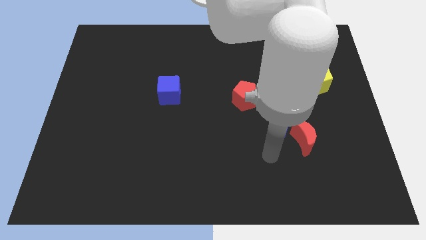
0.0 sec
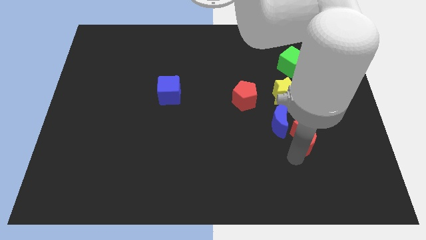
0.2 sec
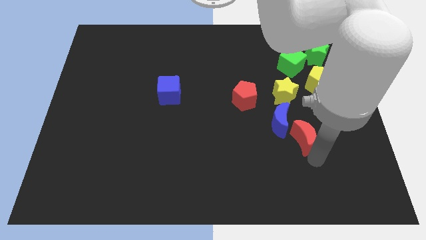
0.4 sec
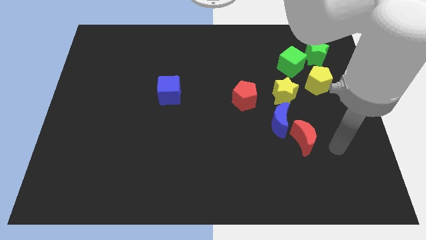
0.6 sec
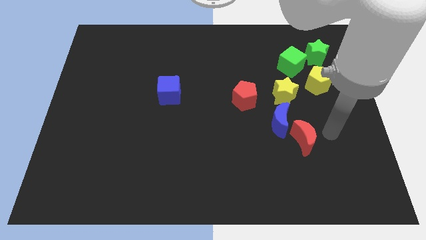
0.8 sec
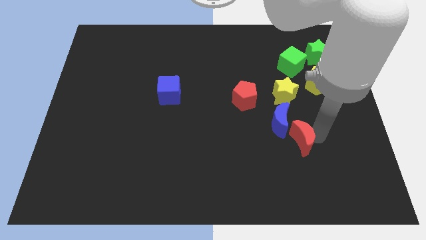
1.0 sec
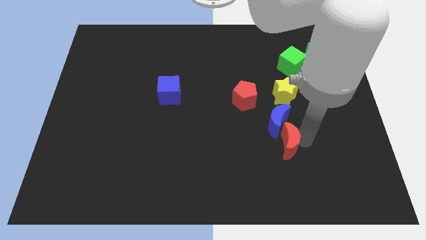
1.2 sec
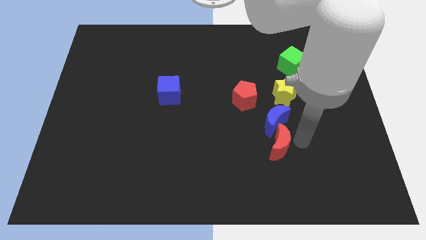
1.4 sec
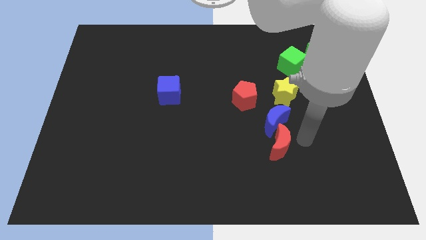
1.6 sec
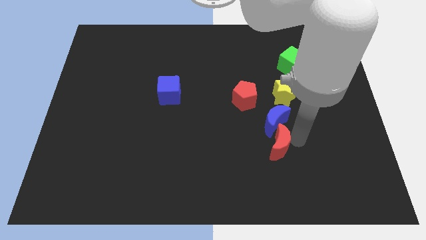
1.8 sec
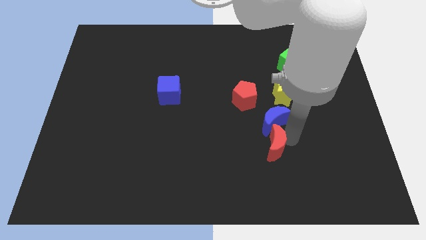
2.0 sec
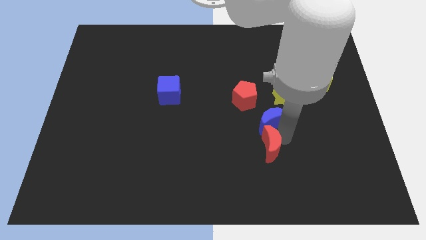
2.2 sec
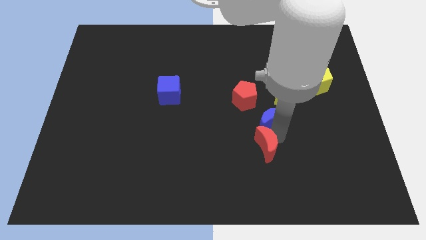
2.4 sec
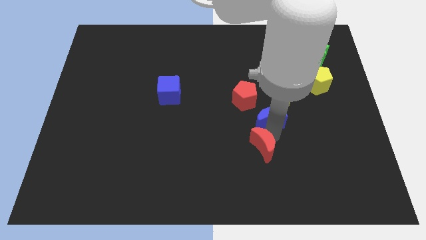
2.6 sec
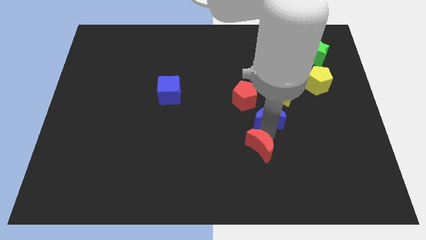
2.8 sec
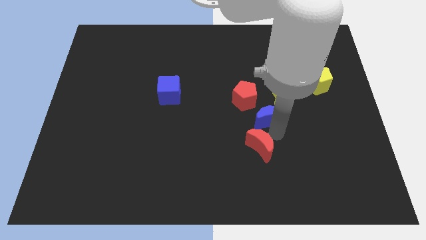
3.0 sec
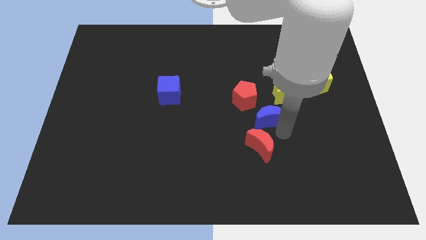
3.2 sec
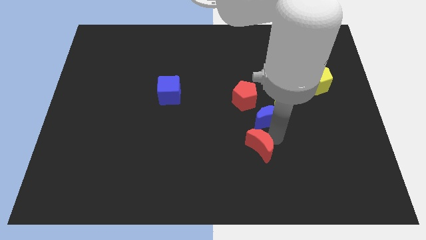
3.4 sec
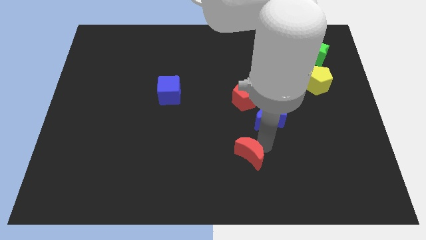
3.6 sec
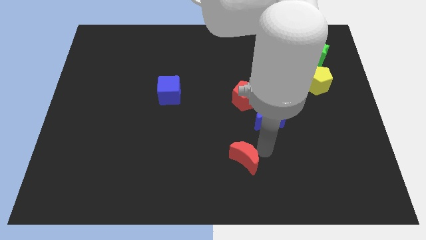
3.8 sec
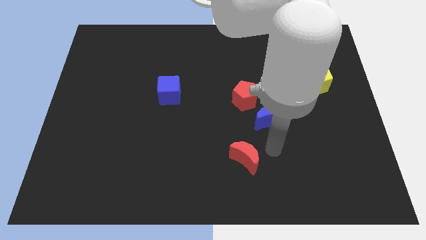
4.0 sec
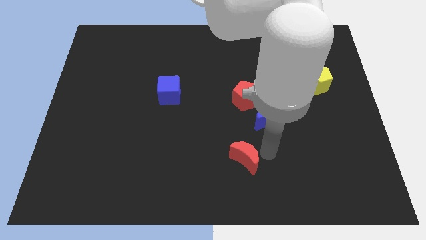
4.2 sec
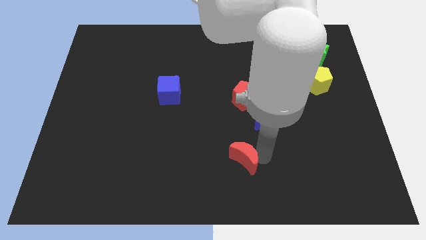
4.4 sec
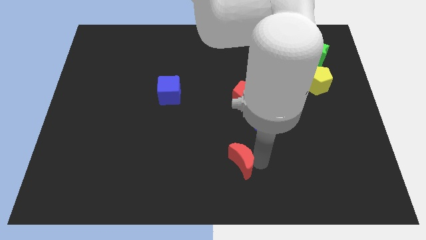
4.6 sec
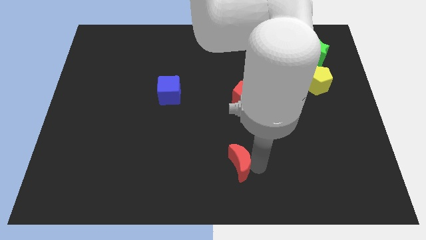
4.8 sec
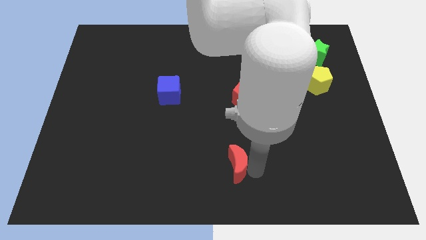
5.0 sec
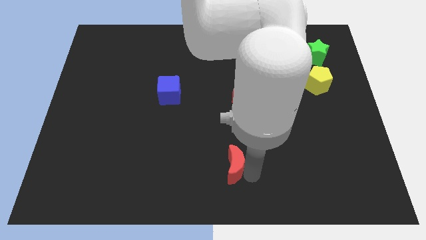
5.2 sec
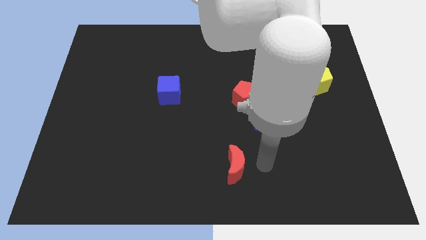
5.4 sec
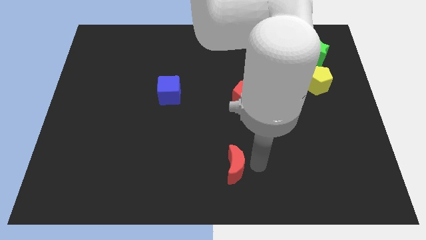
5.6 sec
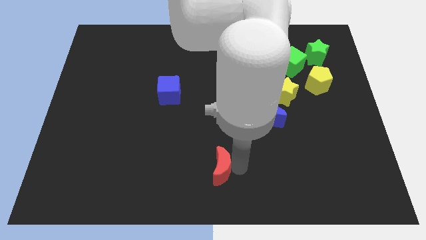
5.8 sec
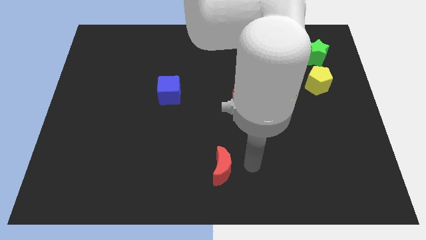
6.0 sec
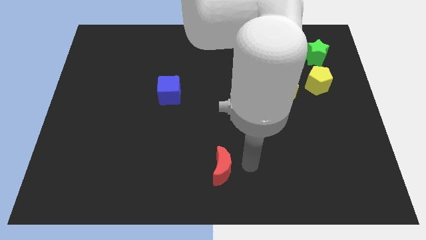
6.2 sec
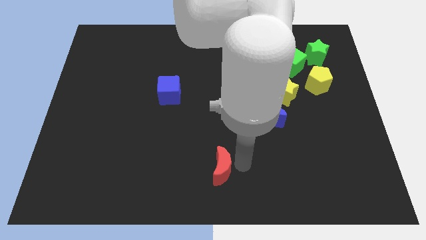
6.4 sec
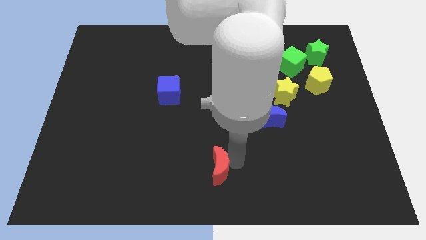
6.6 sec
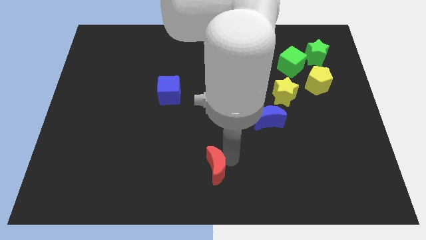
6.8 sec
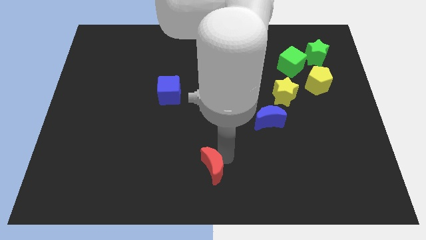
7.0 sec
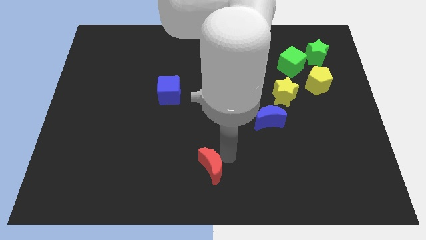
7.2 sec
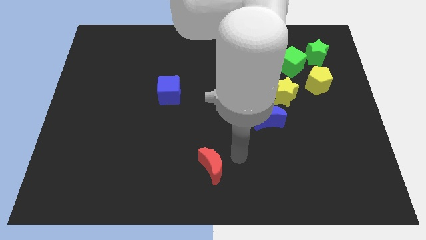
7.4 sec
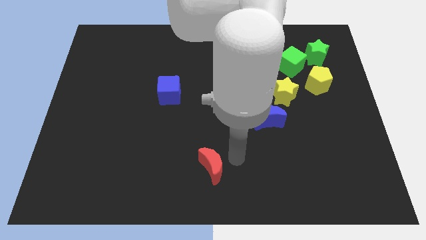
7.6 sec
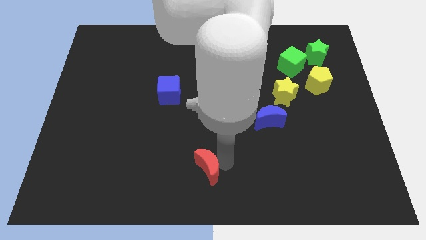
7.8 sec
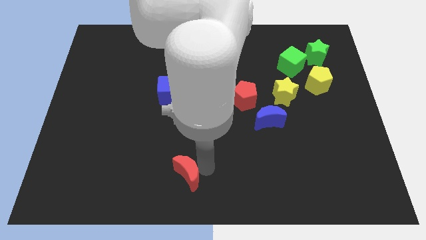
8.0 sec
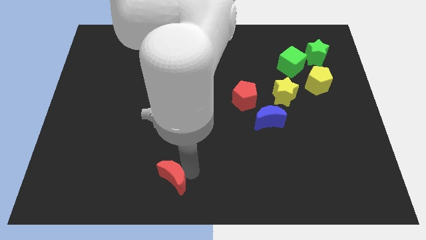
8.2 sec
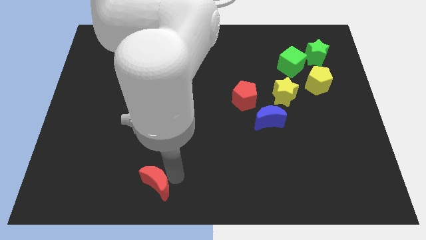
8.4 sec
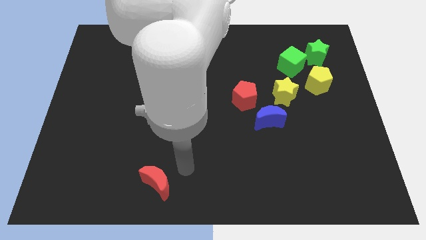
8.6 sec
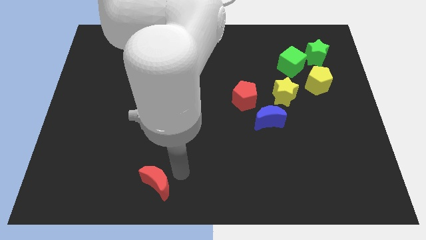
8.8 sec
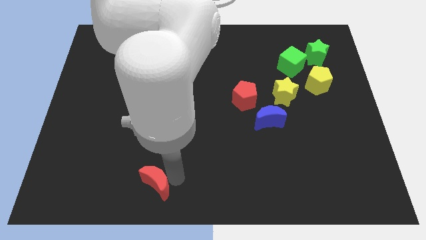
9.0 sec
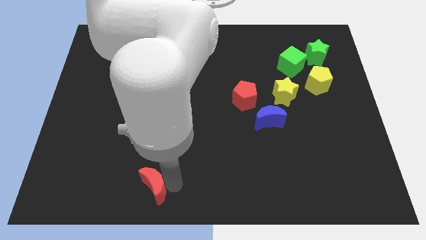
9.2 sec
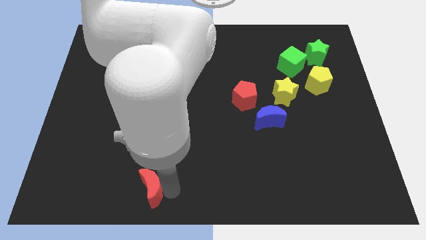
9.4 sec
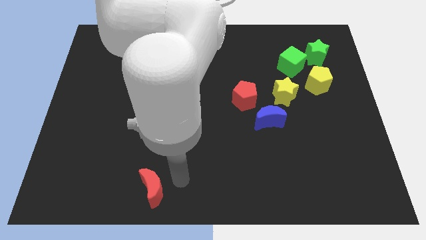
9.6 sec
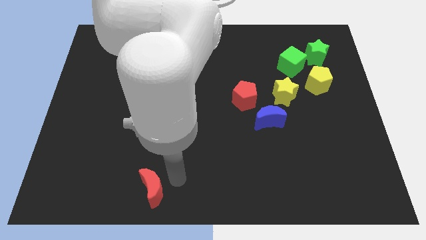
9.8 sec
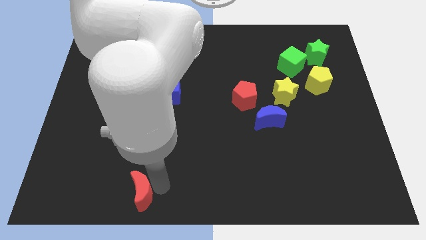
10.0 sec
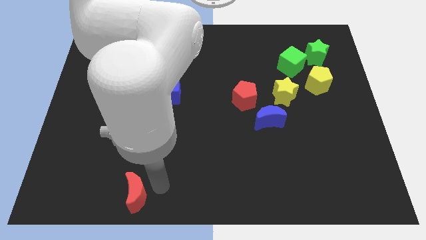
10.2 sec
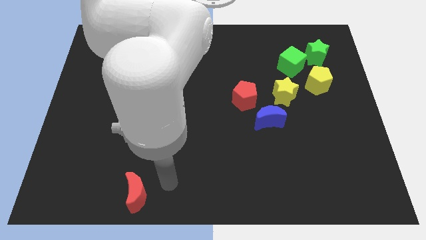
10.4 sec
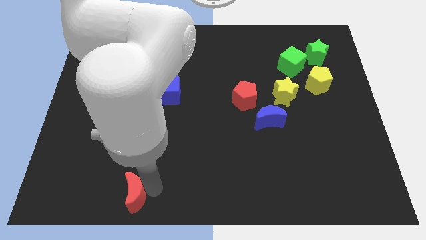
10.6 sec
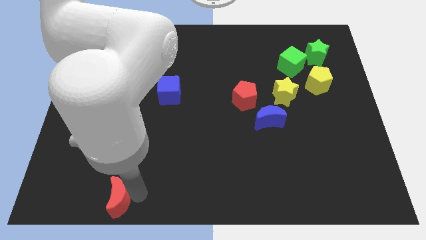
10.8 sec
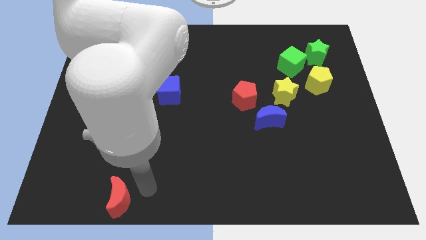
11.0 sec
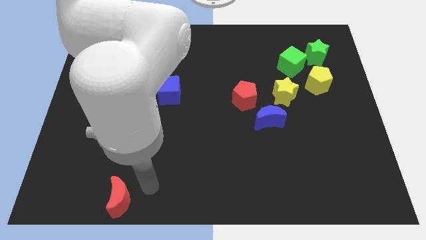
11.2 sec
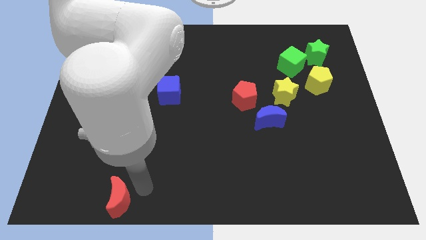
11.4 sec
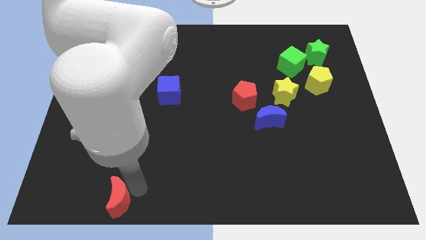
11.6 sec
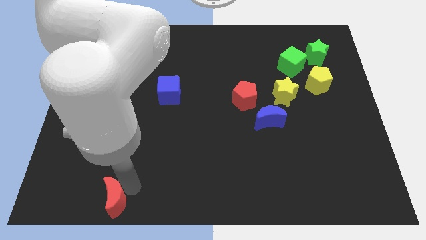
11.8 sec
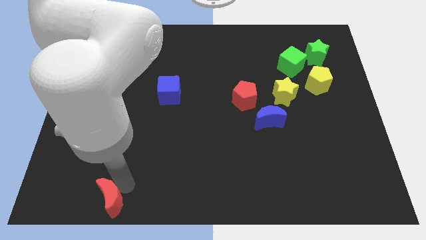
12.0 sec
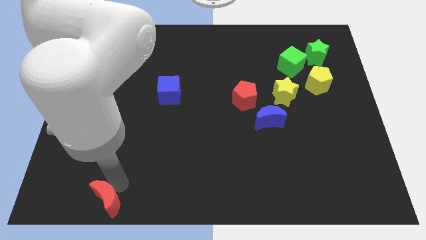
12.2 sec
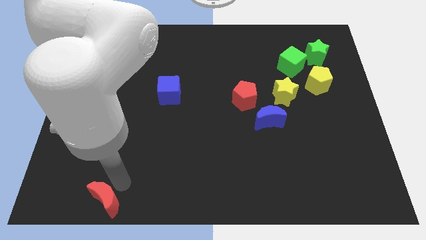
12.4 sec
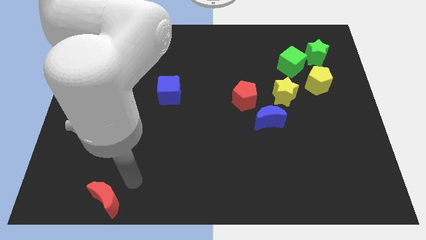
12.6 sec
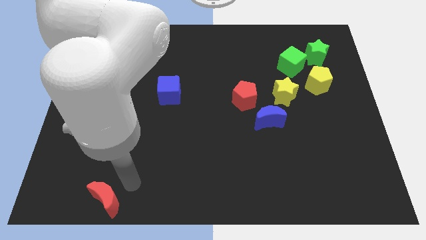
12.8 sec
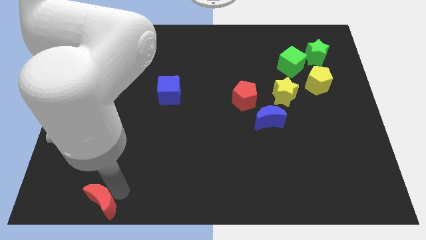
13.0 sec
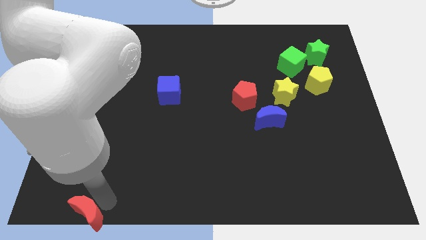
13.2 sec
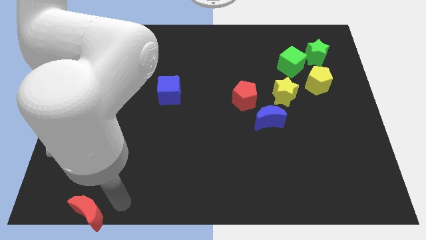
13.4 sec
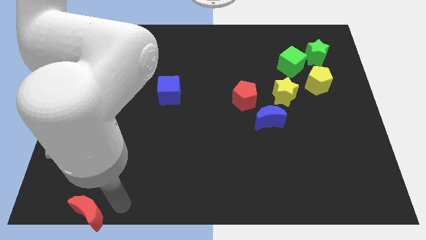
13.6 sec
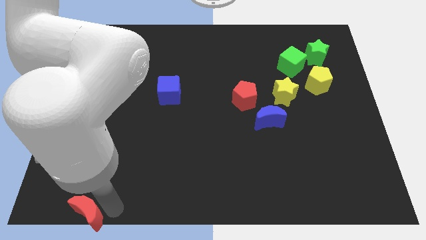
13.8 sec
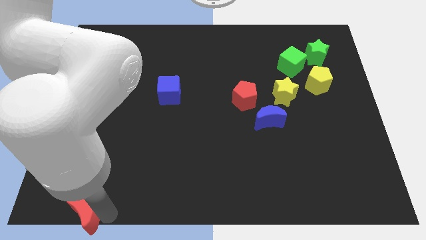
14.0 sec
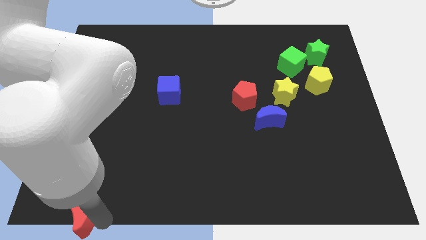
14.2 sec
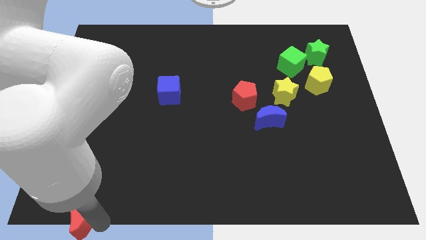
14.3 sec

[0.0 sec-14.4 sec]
move the red moon to the lower left corner
